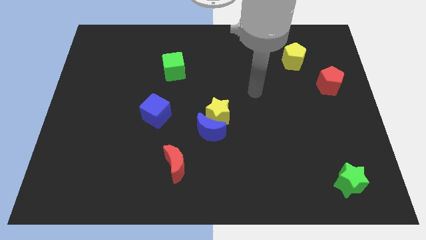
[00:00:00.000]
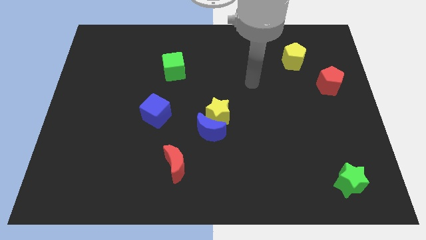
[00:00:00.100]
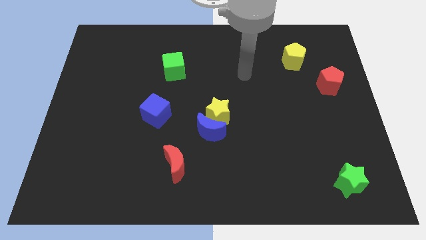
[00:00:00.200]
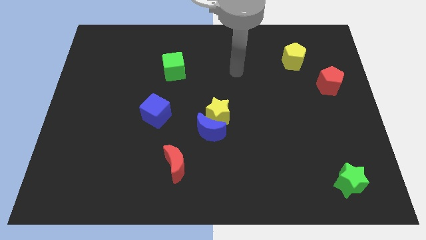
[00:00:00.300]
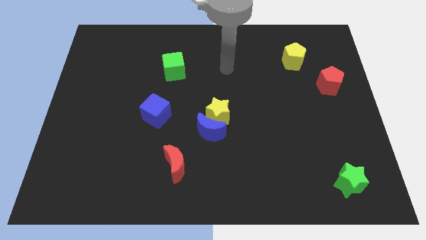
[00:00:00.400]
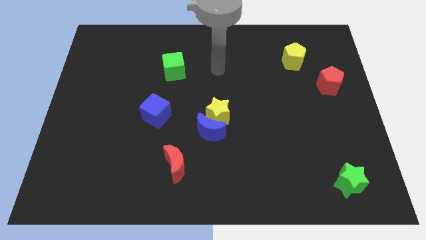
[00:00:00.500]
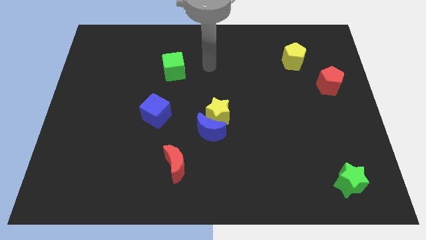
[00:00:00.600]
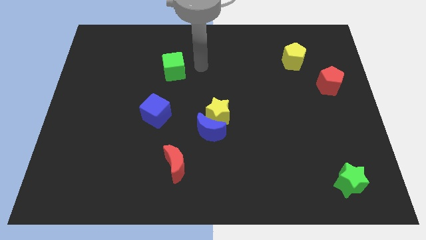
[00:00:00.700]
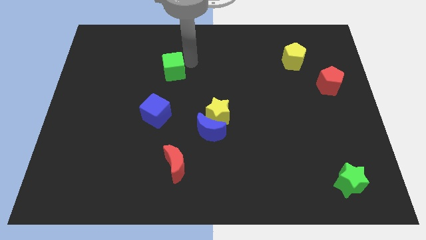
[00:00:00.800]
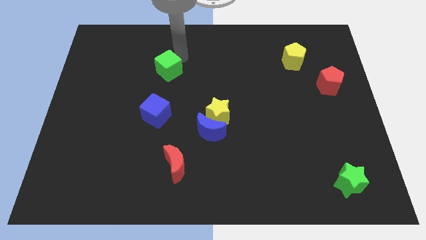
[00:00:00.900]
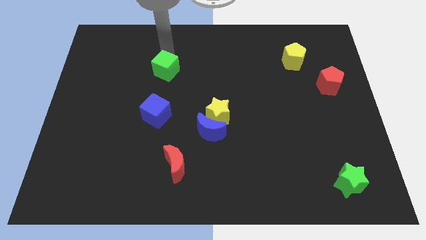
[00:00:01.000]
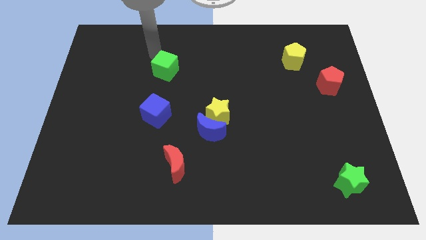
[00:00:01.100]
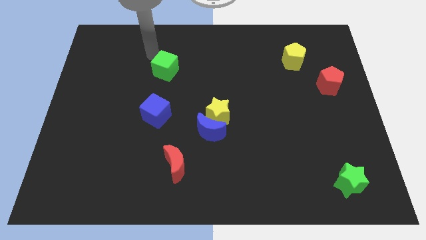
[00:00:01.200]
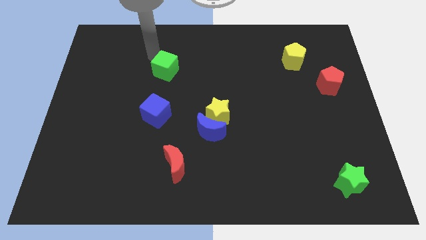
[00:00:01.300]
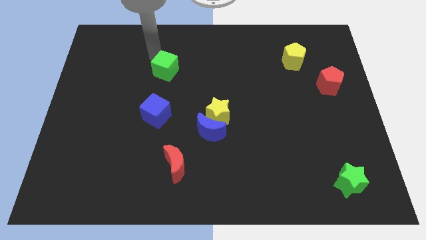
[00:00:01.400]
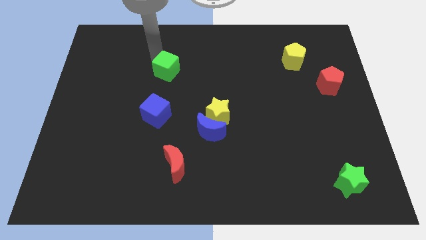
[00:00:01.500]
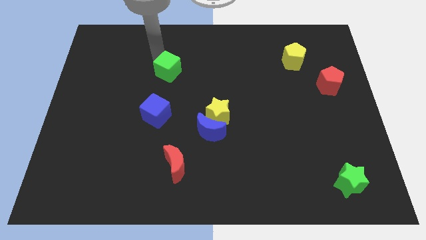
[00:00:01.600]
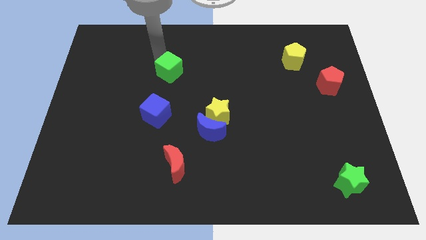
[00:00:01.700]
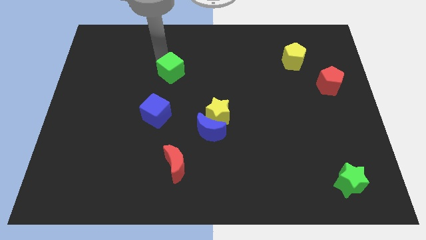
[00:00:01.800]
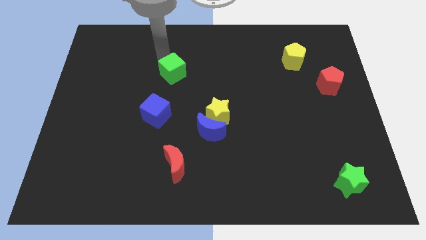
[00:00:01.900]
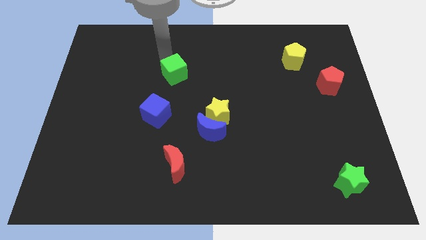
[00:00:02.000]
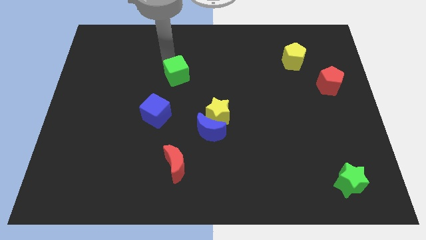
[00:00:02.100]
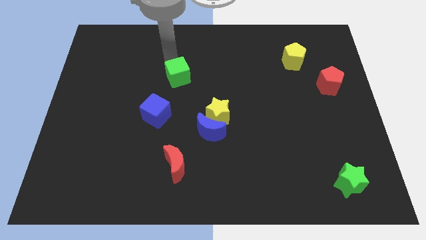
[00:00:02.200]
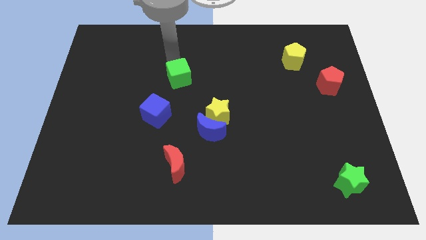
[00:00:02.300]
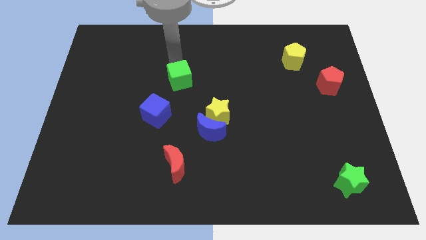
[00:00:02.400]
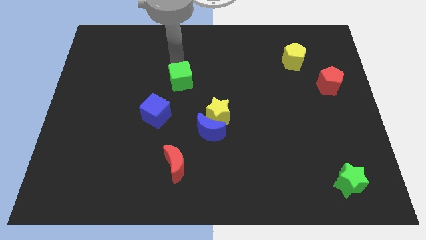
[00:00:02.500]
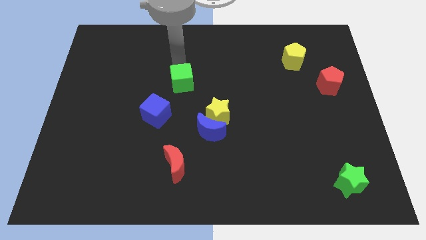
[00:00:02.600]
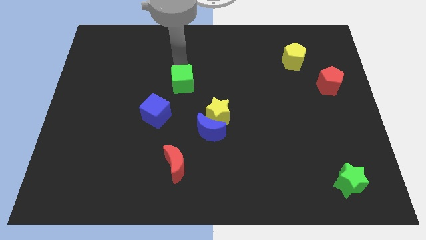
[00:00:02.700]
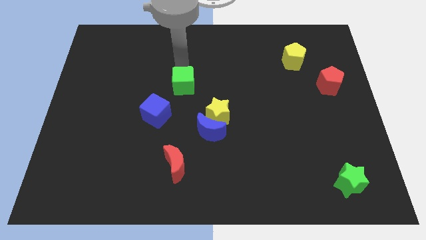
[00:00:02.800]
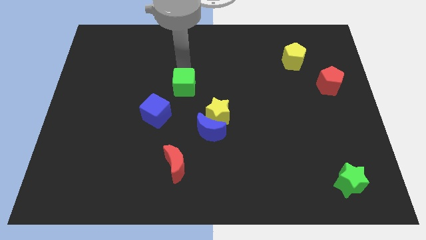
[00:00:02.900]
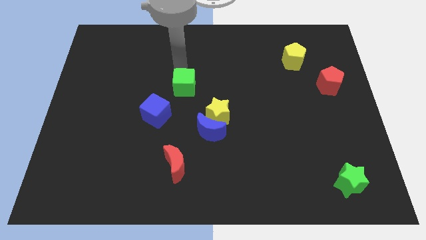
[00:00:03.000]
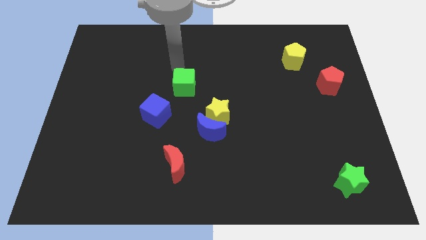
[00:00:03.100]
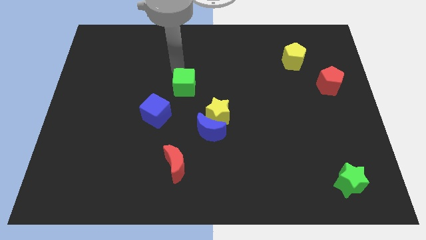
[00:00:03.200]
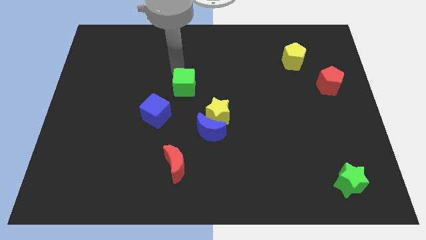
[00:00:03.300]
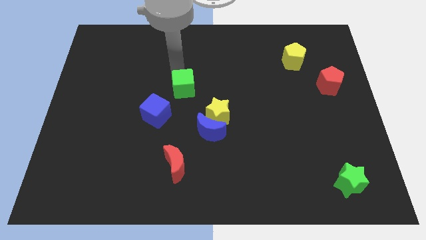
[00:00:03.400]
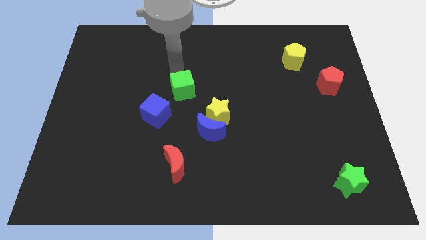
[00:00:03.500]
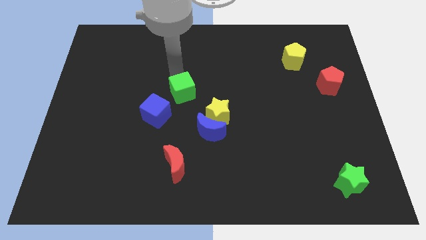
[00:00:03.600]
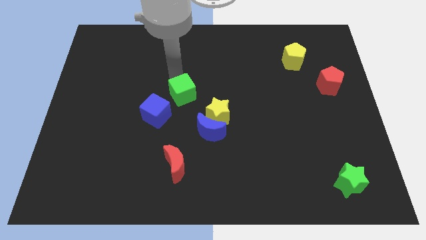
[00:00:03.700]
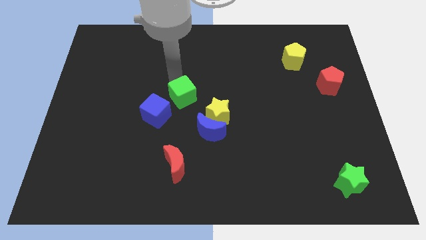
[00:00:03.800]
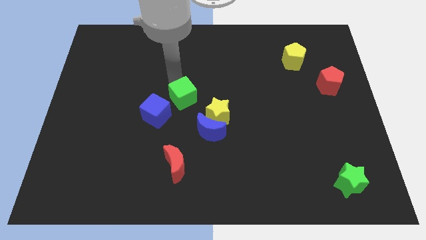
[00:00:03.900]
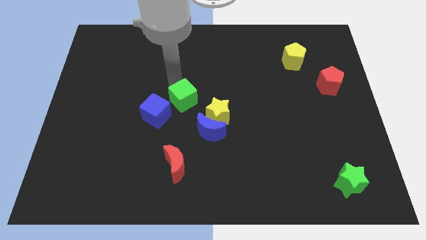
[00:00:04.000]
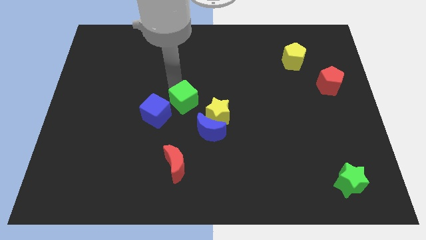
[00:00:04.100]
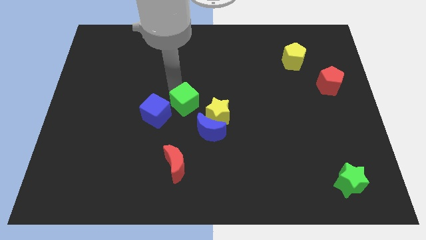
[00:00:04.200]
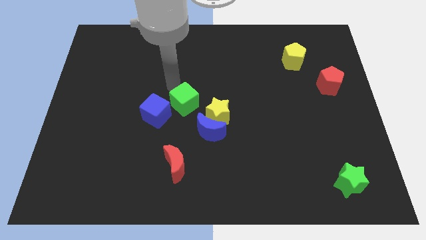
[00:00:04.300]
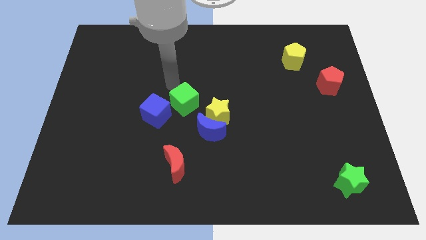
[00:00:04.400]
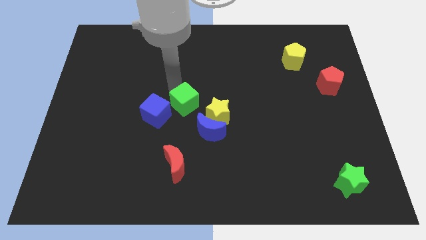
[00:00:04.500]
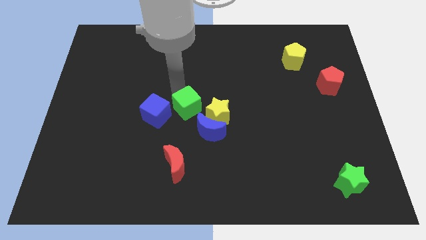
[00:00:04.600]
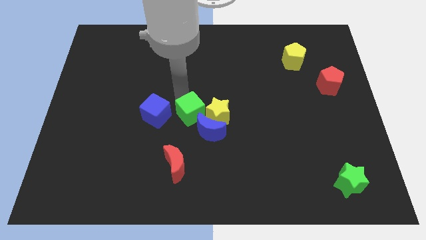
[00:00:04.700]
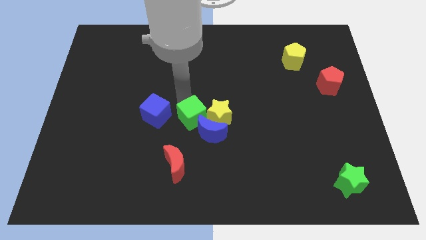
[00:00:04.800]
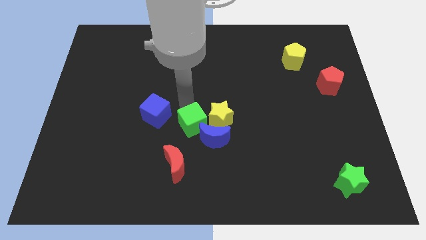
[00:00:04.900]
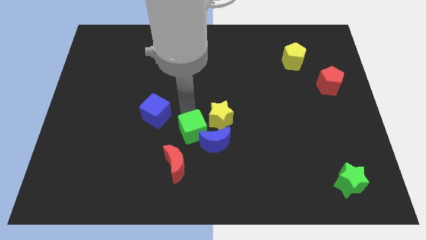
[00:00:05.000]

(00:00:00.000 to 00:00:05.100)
slide the green cube to the blue moon

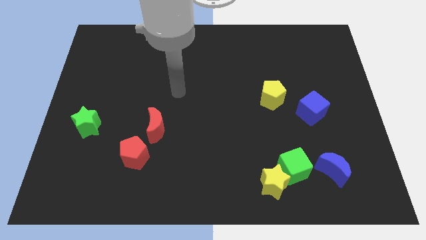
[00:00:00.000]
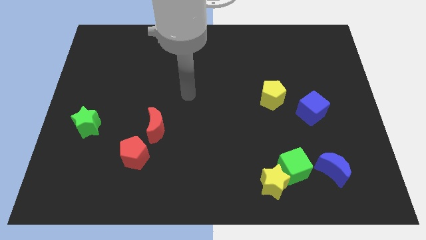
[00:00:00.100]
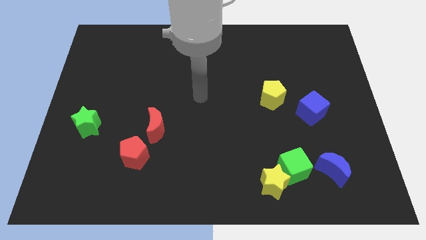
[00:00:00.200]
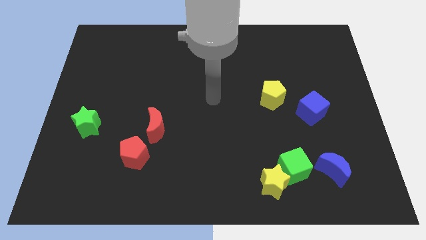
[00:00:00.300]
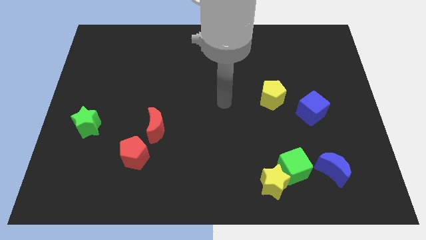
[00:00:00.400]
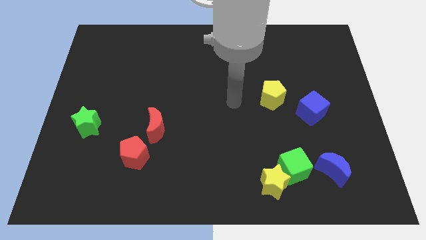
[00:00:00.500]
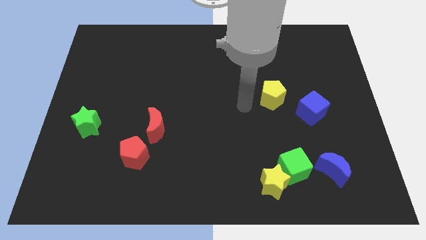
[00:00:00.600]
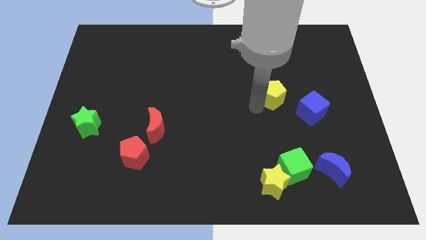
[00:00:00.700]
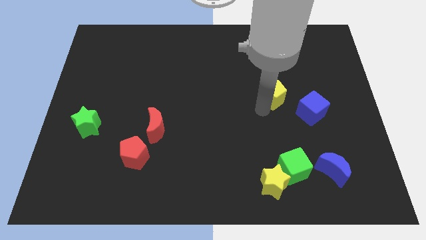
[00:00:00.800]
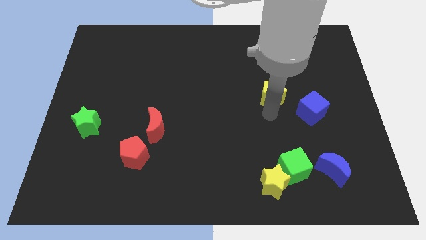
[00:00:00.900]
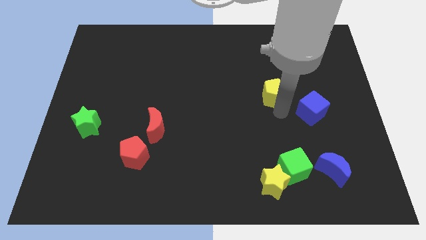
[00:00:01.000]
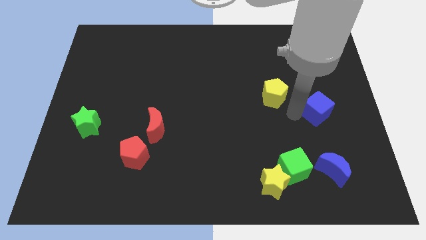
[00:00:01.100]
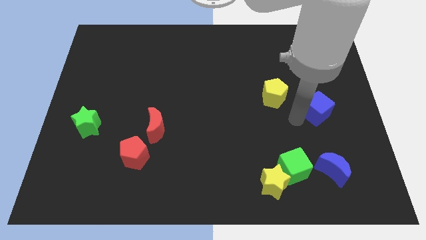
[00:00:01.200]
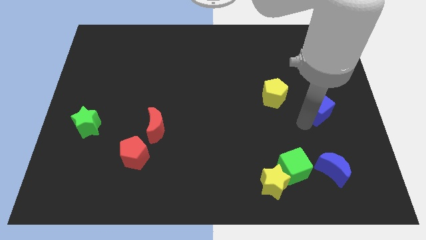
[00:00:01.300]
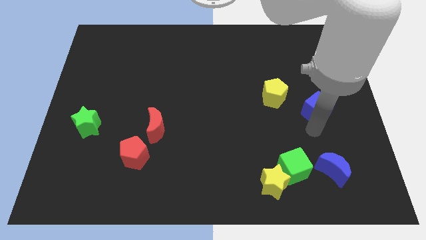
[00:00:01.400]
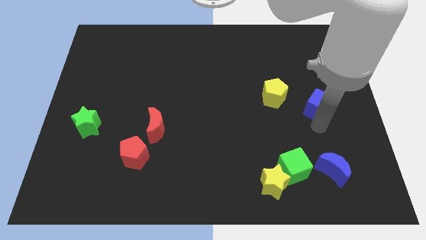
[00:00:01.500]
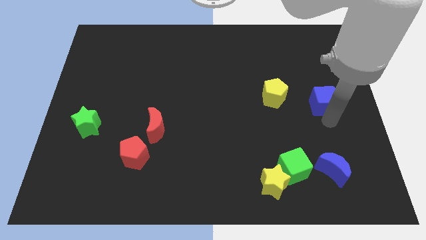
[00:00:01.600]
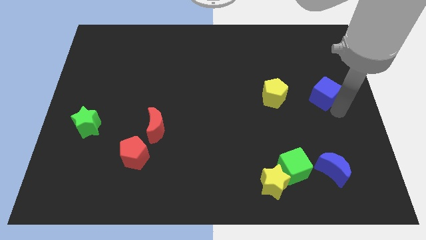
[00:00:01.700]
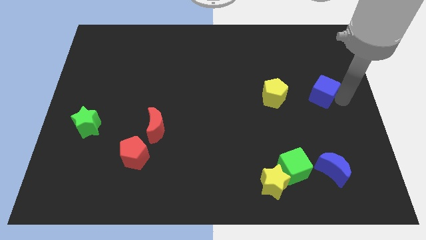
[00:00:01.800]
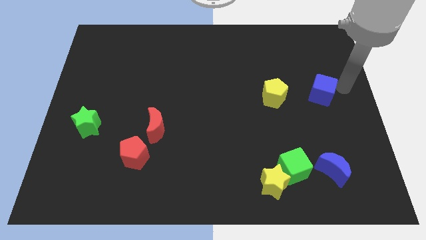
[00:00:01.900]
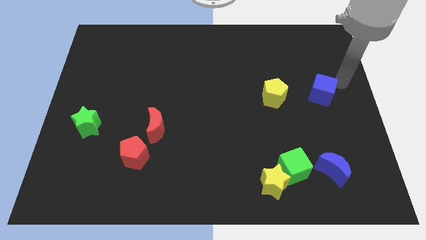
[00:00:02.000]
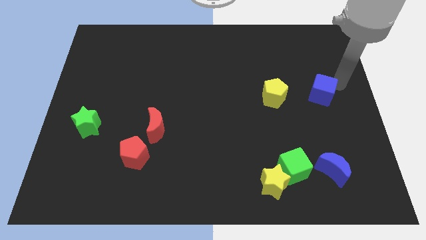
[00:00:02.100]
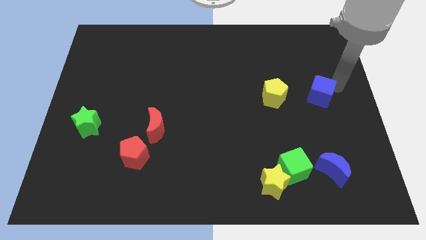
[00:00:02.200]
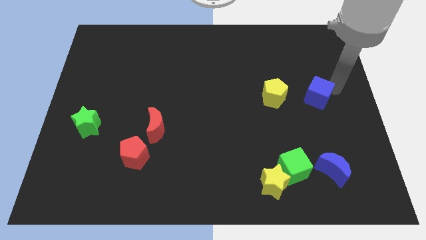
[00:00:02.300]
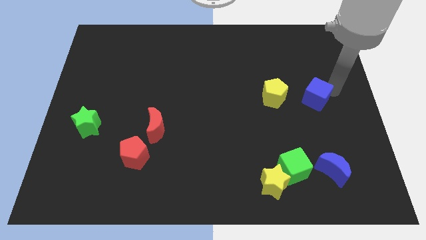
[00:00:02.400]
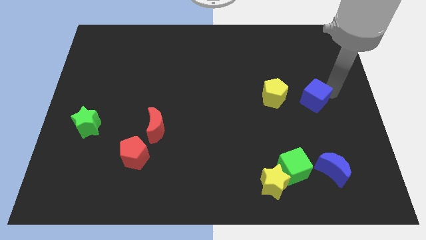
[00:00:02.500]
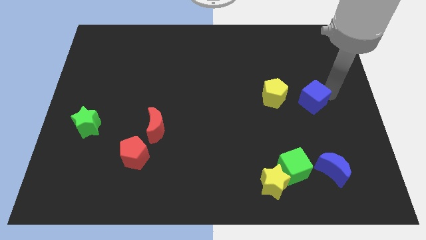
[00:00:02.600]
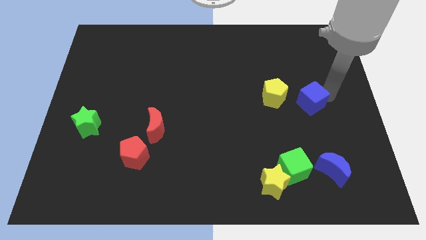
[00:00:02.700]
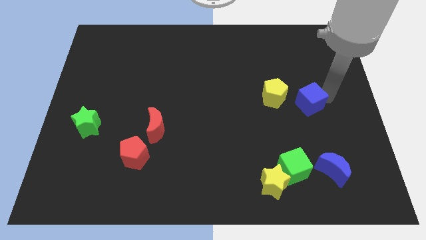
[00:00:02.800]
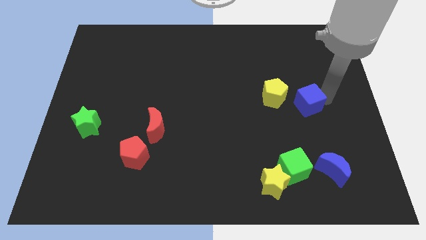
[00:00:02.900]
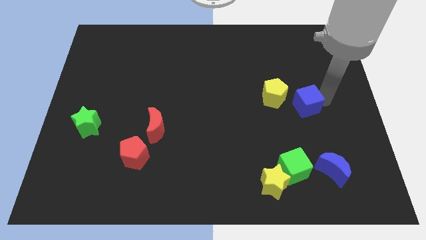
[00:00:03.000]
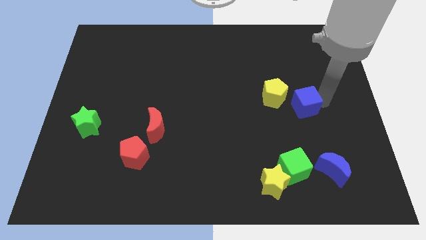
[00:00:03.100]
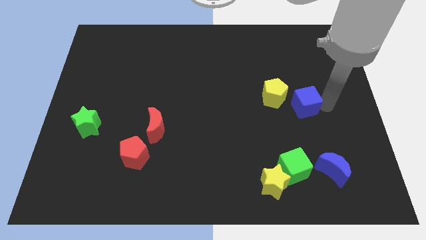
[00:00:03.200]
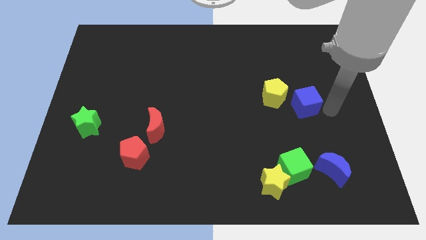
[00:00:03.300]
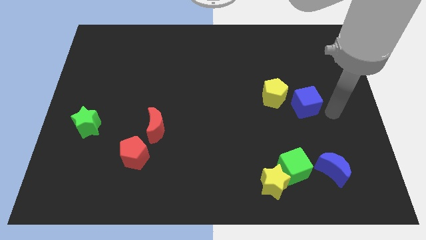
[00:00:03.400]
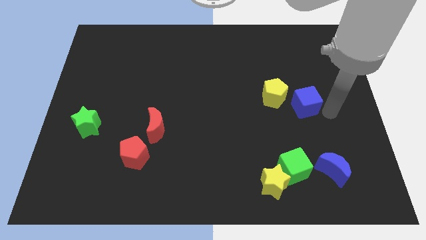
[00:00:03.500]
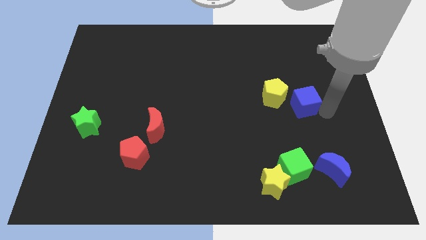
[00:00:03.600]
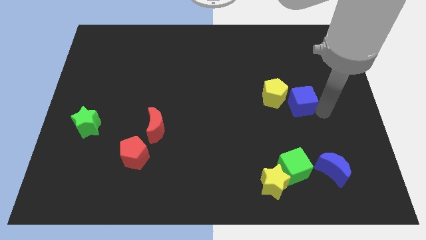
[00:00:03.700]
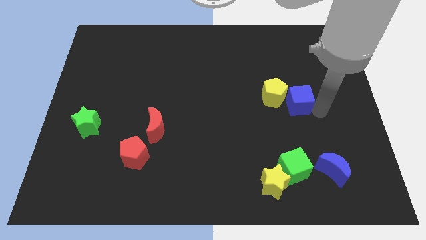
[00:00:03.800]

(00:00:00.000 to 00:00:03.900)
move the blue cube close to the yellow pentagon
